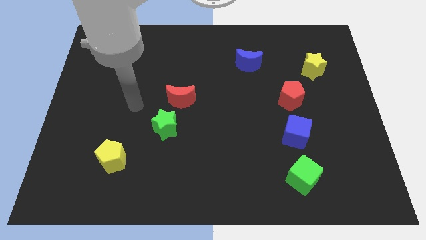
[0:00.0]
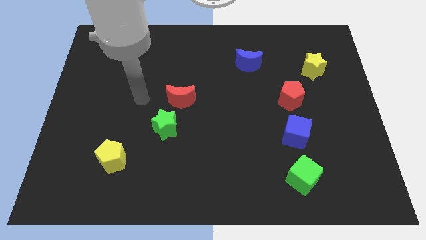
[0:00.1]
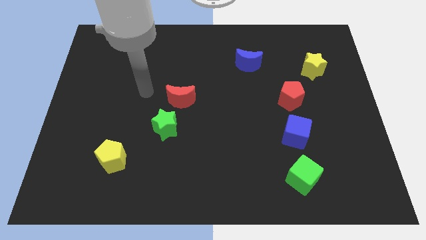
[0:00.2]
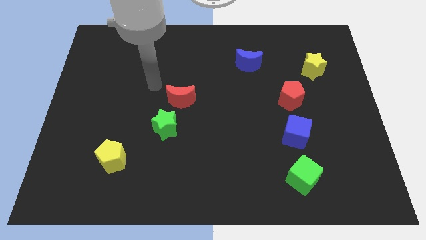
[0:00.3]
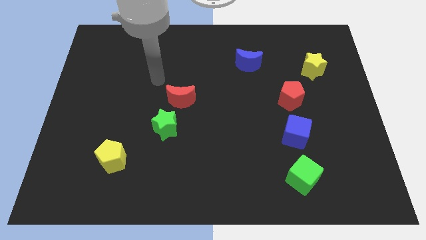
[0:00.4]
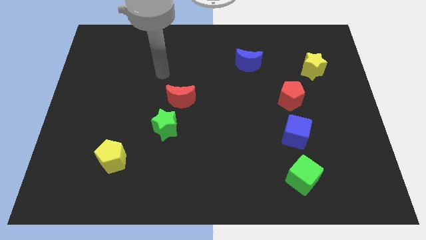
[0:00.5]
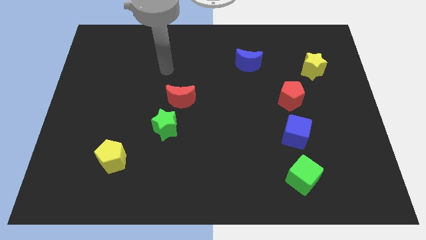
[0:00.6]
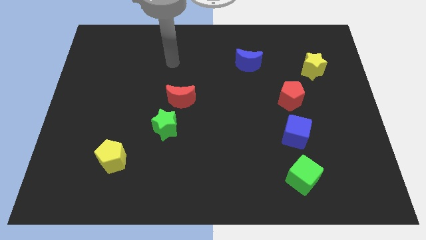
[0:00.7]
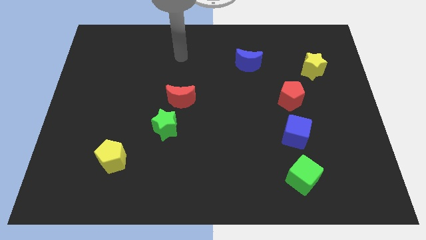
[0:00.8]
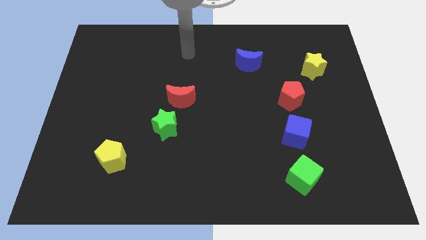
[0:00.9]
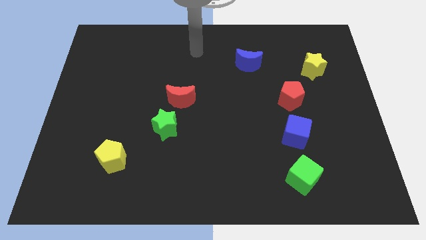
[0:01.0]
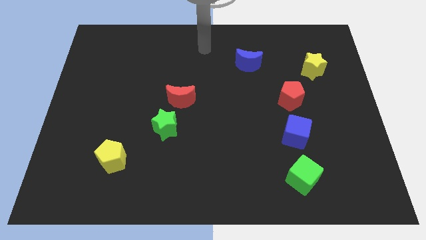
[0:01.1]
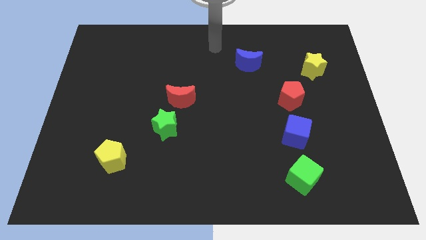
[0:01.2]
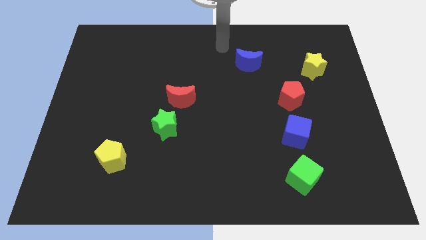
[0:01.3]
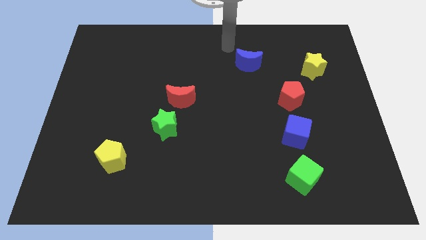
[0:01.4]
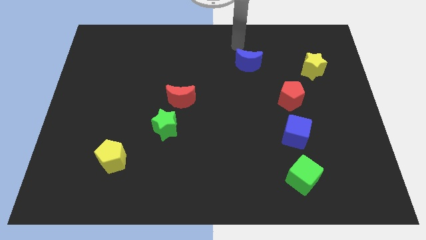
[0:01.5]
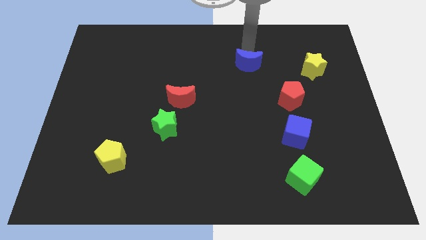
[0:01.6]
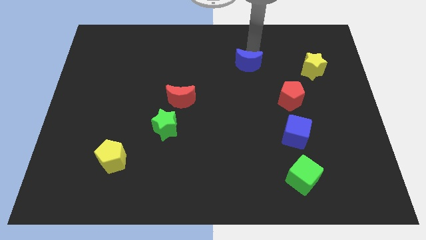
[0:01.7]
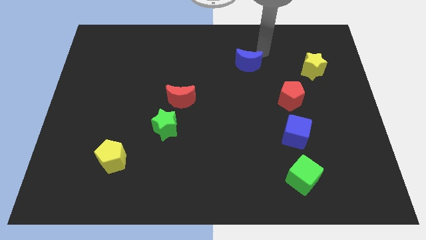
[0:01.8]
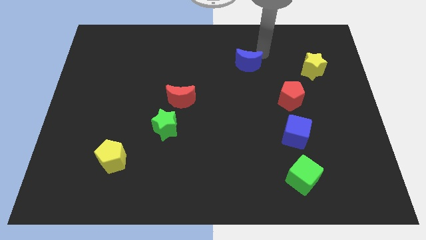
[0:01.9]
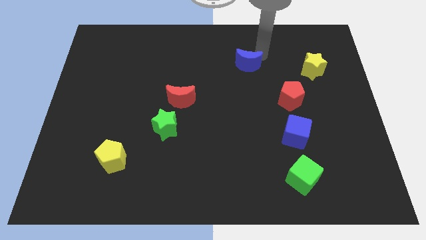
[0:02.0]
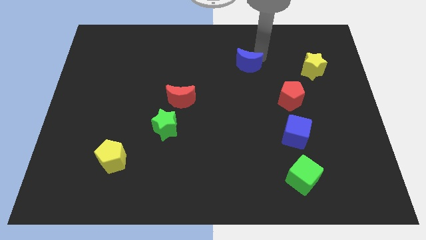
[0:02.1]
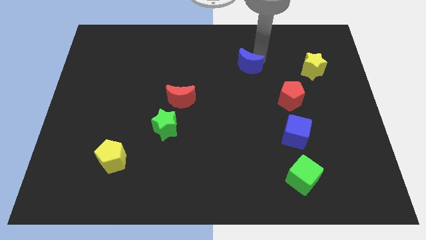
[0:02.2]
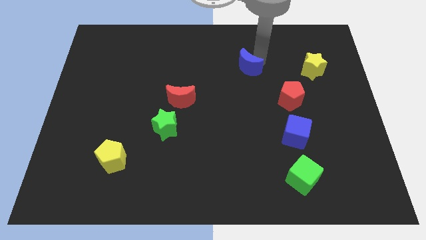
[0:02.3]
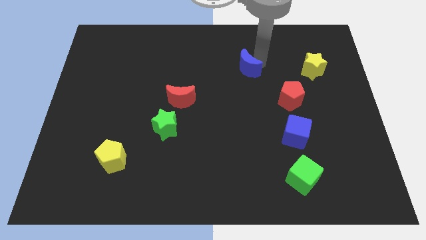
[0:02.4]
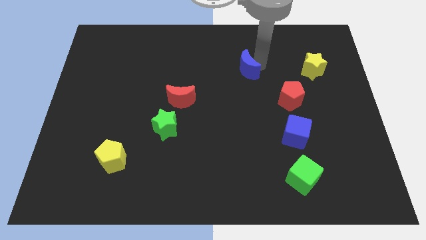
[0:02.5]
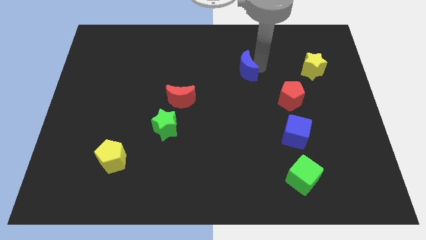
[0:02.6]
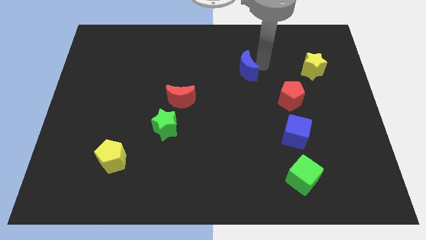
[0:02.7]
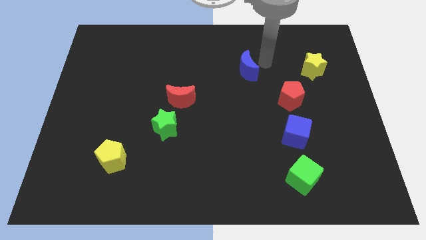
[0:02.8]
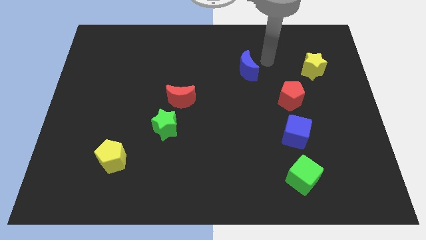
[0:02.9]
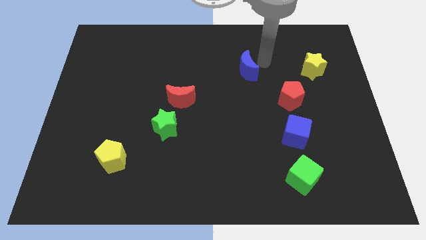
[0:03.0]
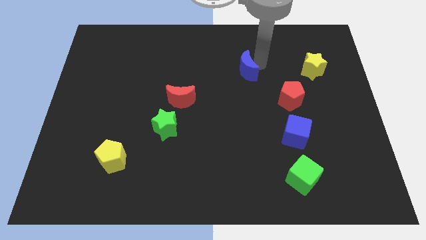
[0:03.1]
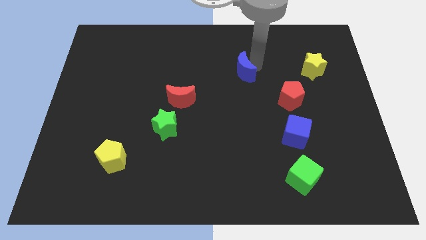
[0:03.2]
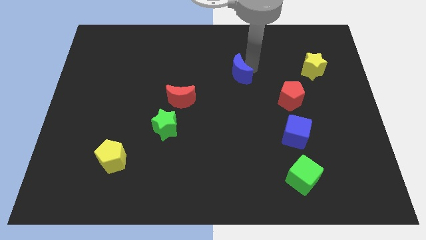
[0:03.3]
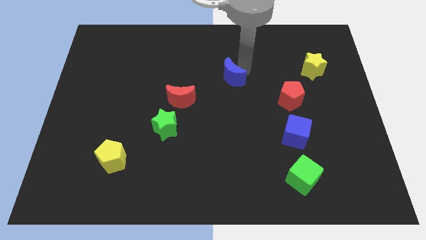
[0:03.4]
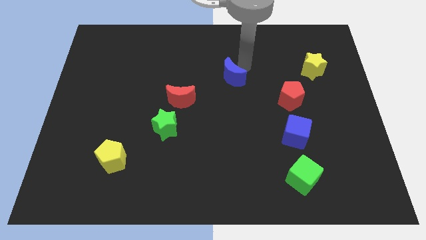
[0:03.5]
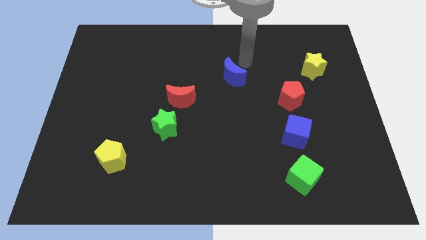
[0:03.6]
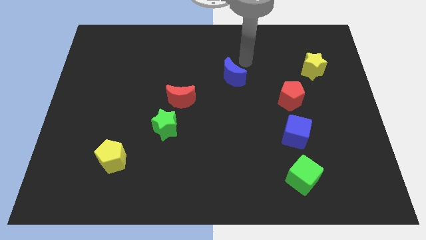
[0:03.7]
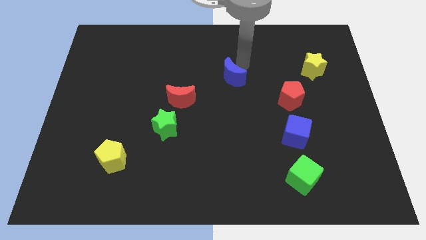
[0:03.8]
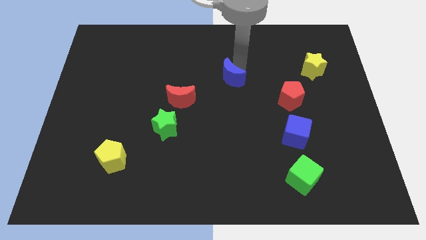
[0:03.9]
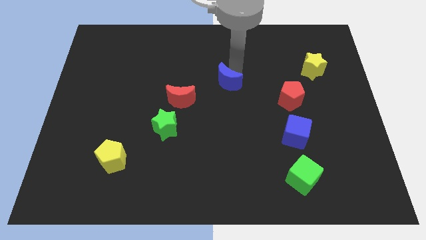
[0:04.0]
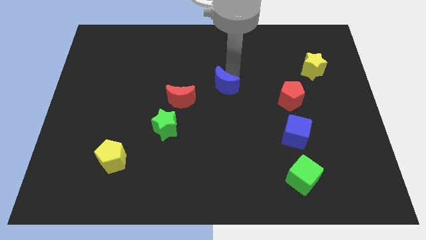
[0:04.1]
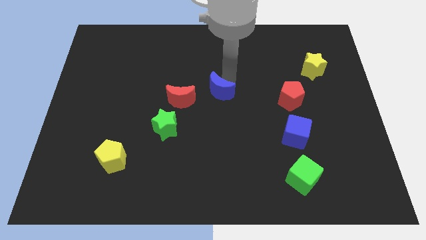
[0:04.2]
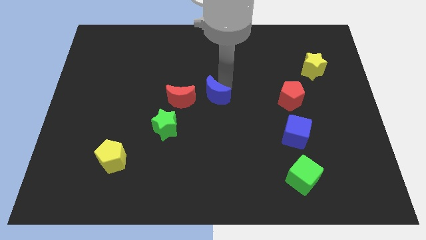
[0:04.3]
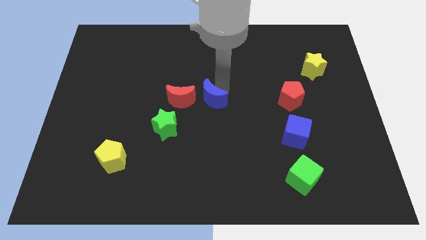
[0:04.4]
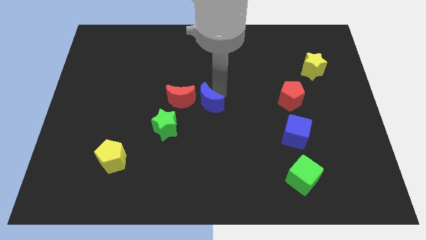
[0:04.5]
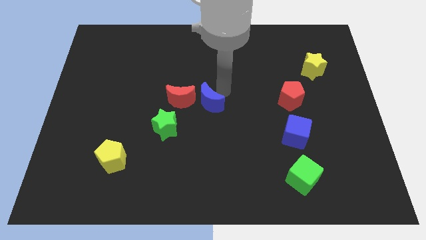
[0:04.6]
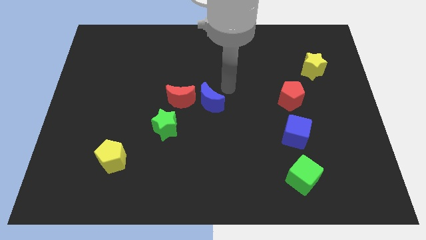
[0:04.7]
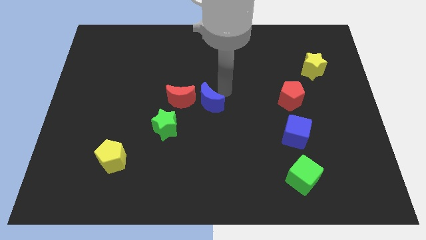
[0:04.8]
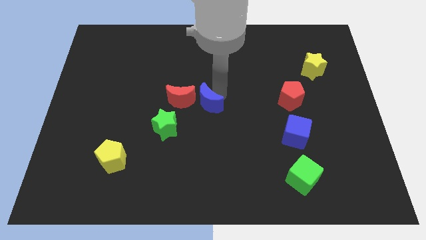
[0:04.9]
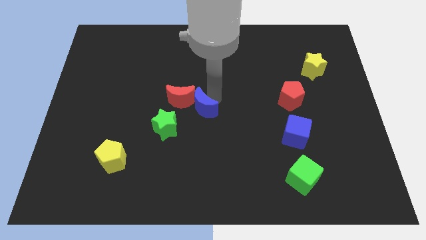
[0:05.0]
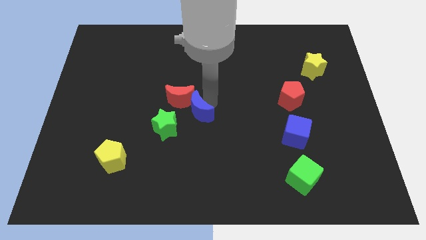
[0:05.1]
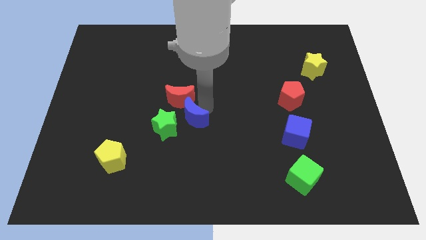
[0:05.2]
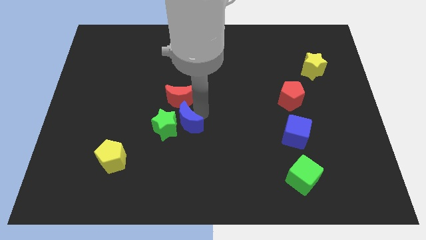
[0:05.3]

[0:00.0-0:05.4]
slide the blue moon to the green star
